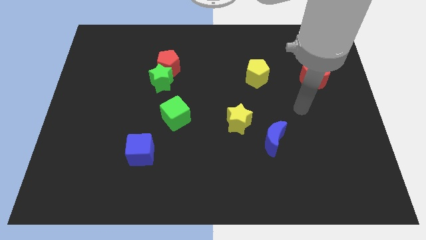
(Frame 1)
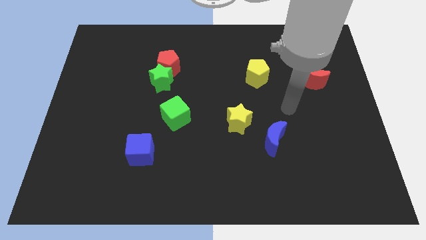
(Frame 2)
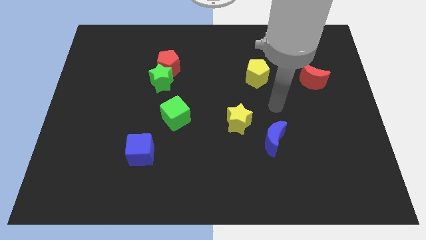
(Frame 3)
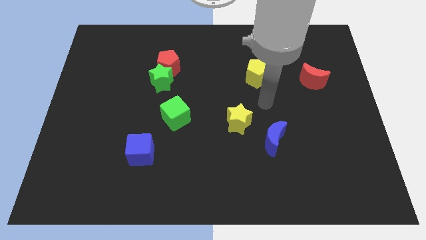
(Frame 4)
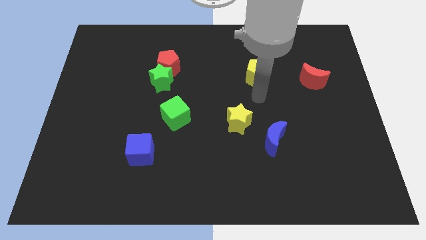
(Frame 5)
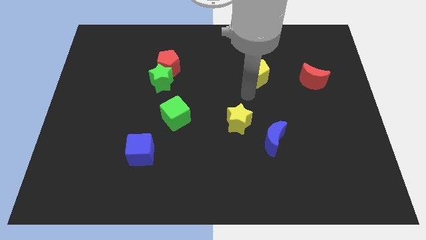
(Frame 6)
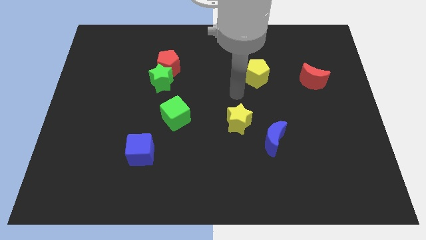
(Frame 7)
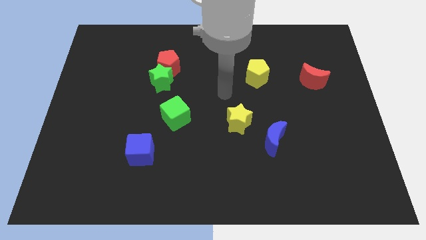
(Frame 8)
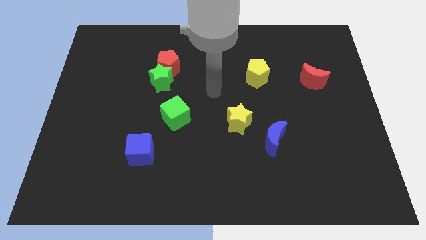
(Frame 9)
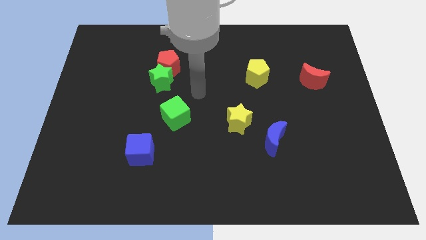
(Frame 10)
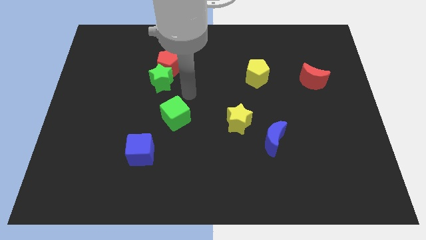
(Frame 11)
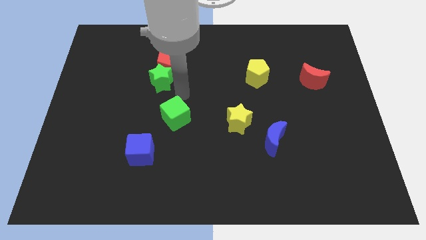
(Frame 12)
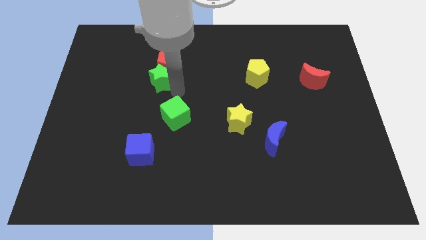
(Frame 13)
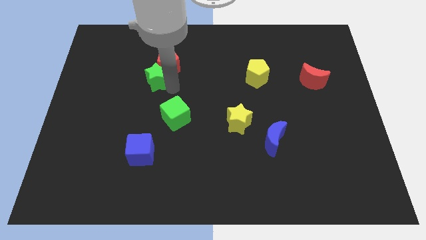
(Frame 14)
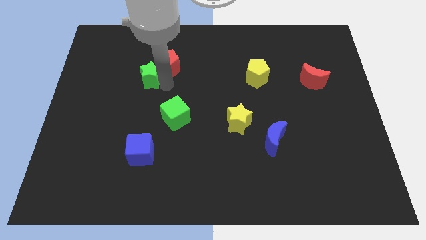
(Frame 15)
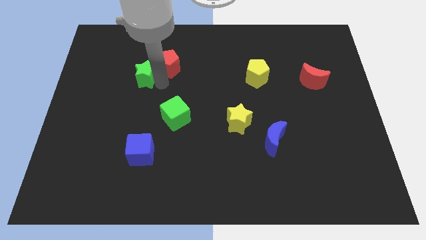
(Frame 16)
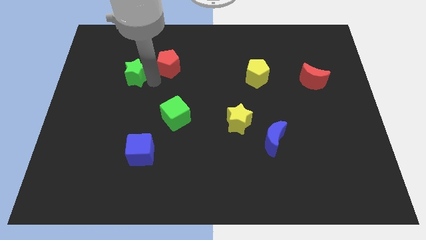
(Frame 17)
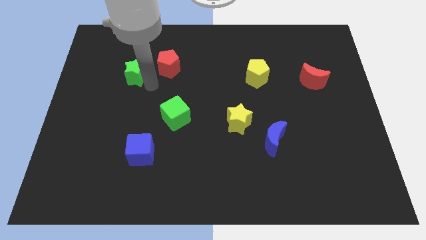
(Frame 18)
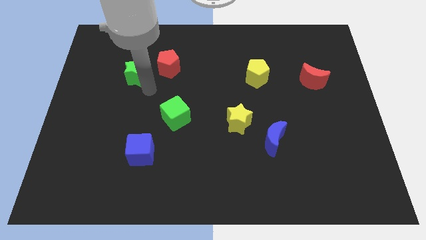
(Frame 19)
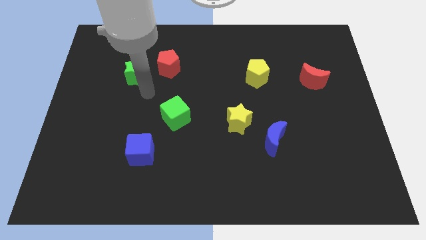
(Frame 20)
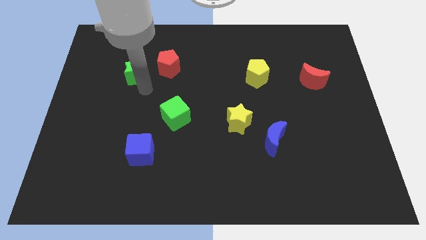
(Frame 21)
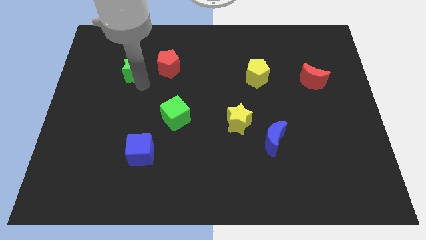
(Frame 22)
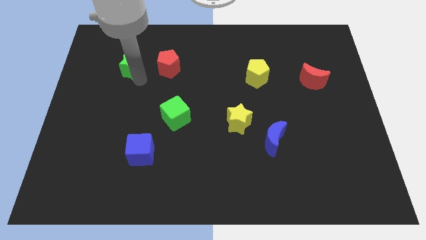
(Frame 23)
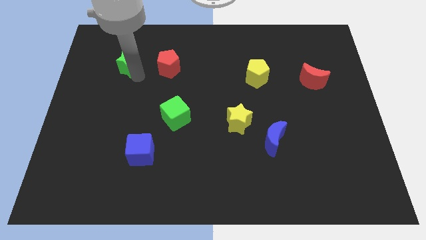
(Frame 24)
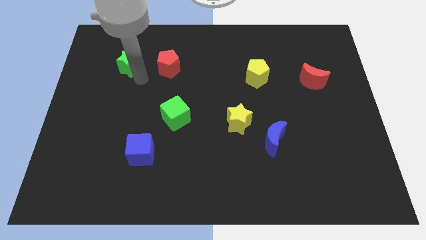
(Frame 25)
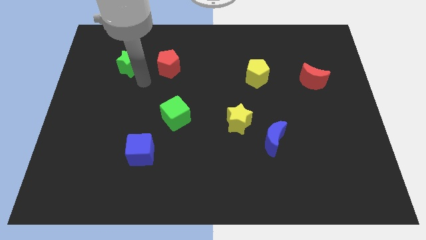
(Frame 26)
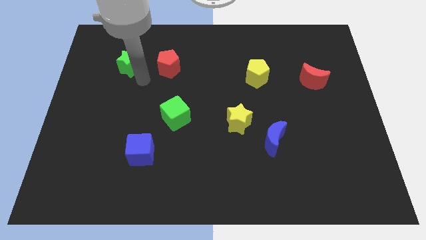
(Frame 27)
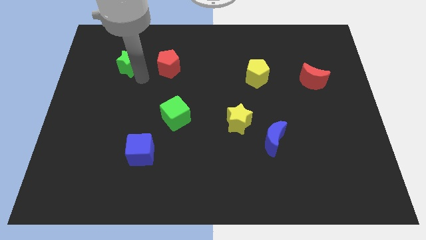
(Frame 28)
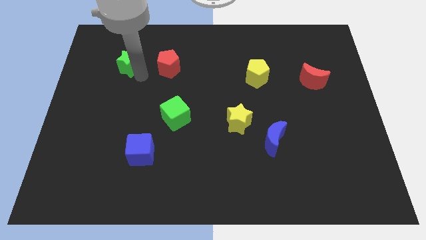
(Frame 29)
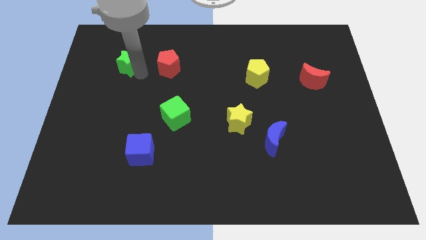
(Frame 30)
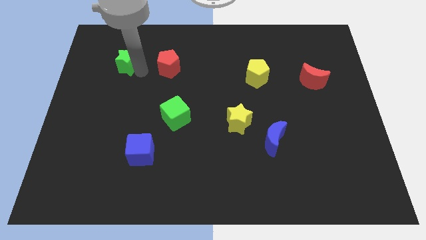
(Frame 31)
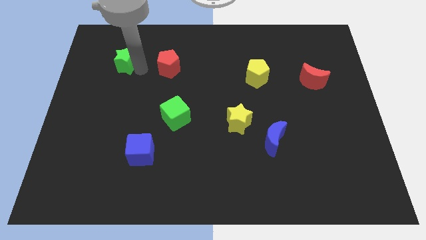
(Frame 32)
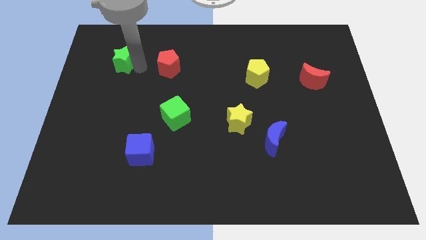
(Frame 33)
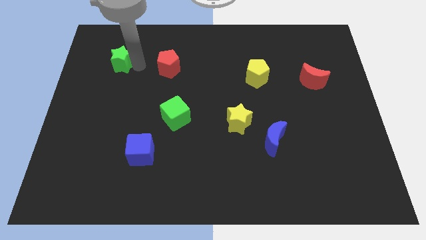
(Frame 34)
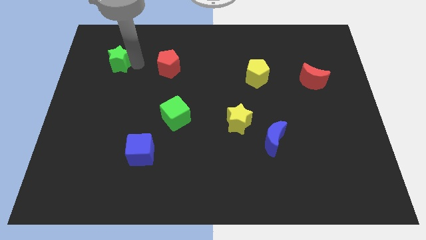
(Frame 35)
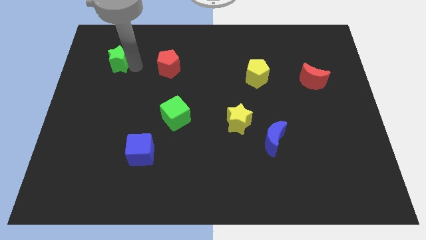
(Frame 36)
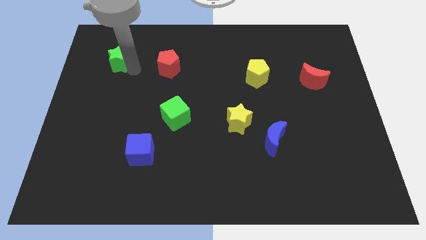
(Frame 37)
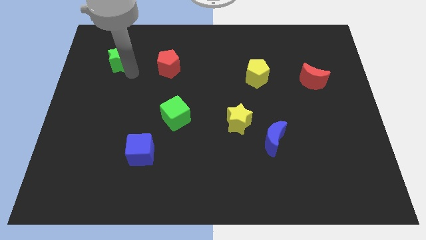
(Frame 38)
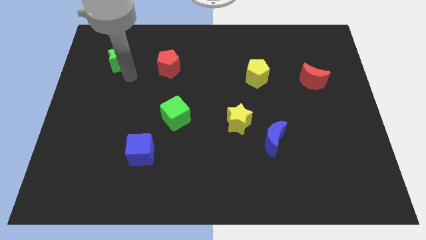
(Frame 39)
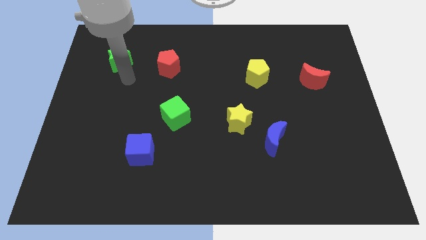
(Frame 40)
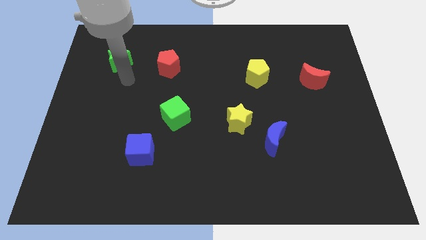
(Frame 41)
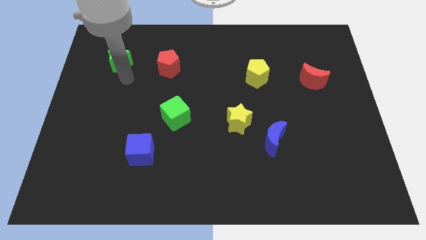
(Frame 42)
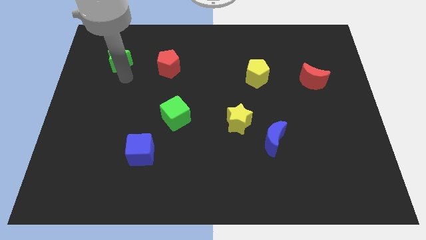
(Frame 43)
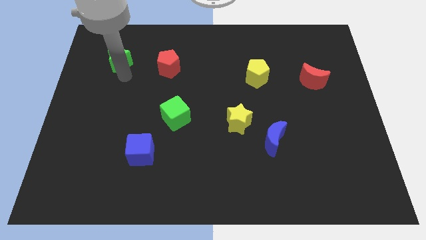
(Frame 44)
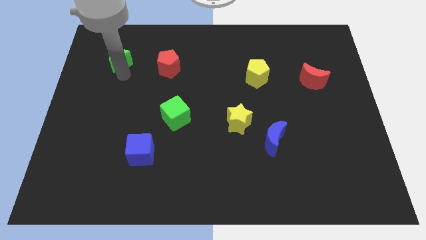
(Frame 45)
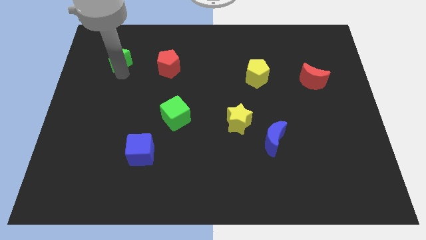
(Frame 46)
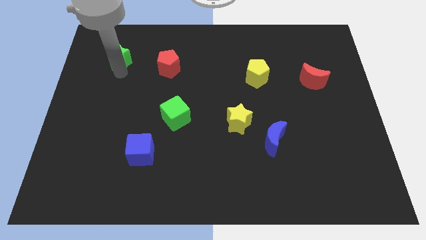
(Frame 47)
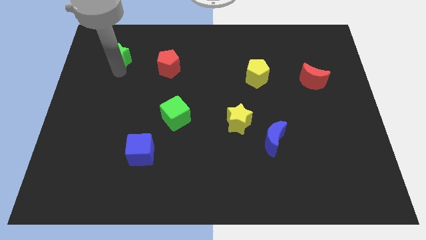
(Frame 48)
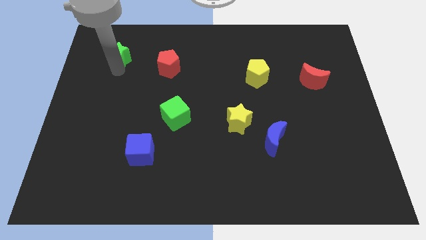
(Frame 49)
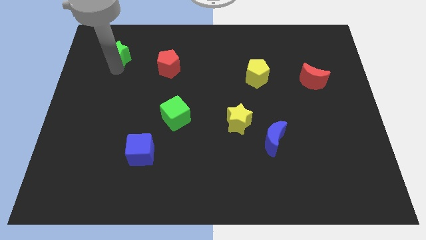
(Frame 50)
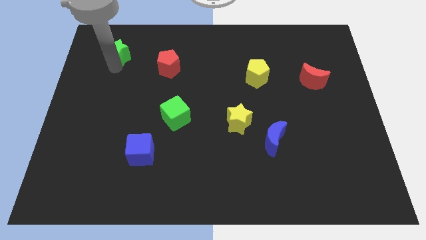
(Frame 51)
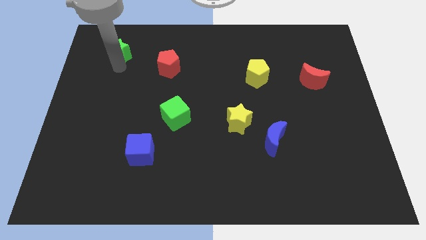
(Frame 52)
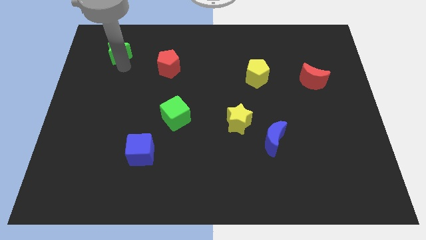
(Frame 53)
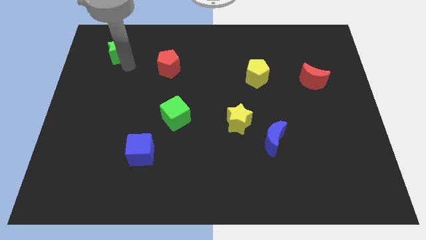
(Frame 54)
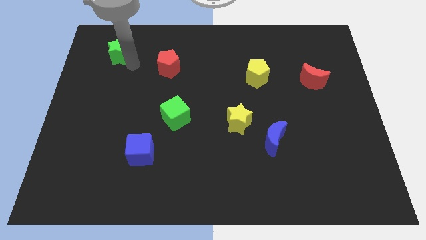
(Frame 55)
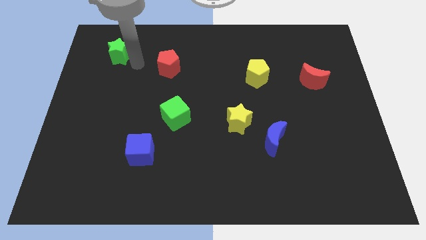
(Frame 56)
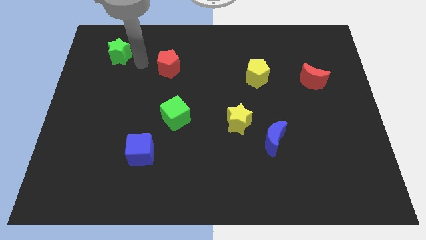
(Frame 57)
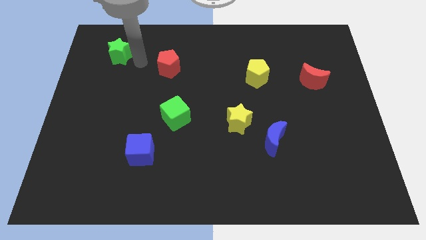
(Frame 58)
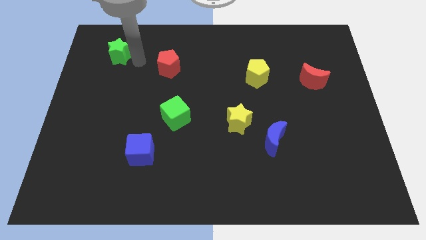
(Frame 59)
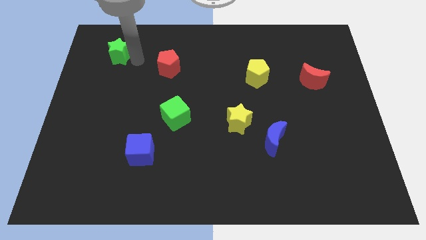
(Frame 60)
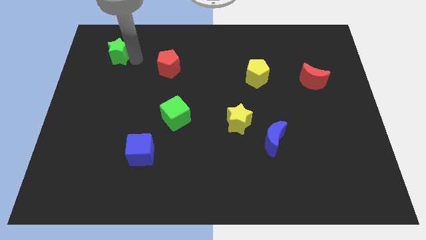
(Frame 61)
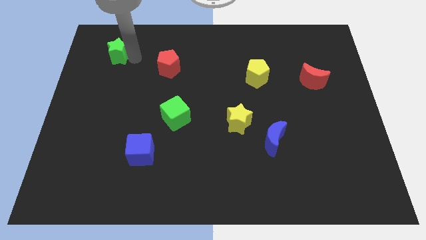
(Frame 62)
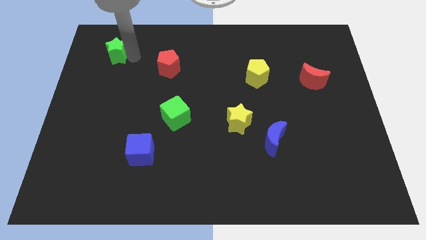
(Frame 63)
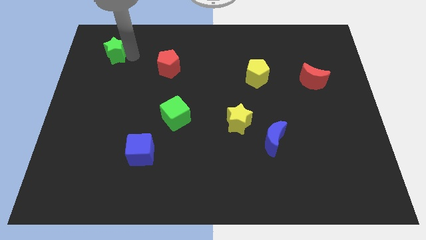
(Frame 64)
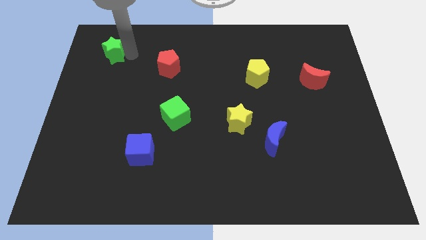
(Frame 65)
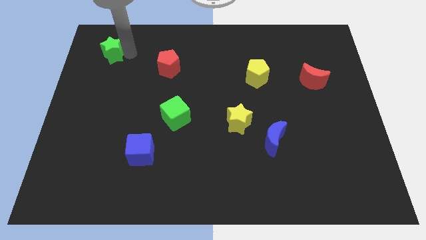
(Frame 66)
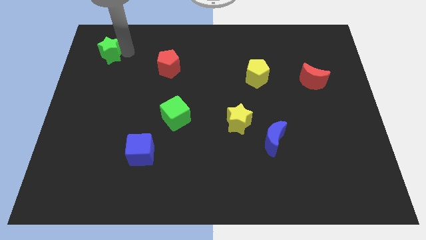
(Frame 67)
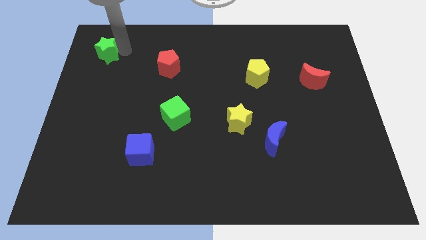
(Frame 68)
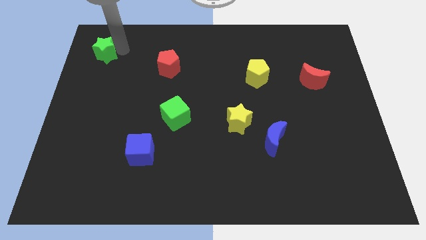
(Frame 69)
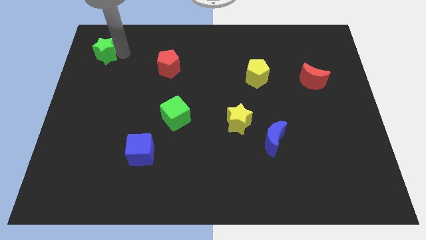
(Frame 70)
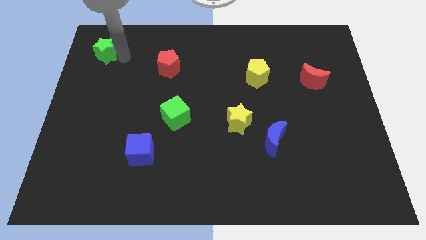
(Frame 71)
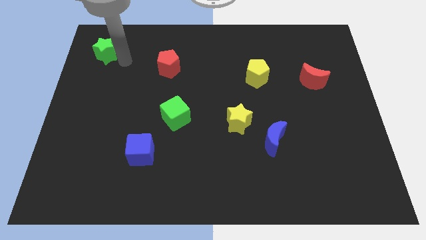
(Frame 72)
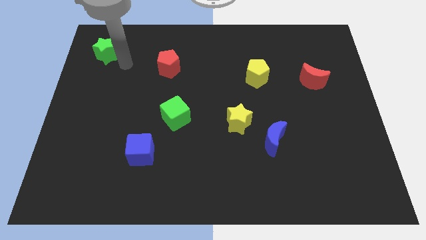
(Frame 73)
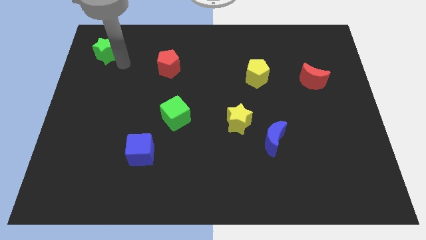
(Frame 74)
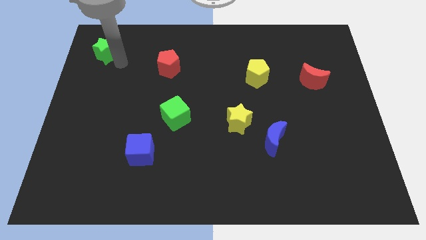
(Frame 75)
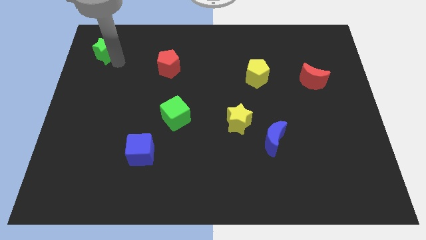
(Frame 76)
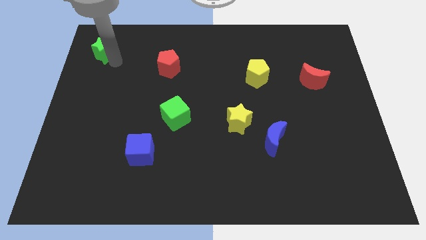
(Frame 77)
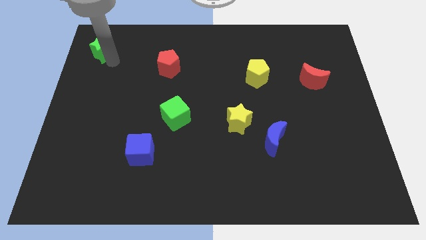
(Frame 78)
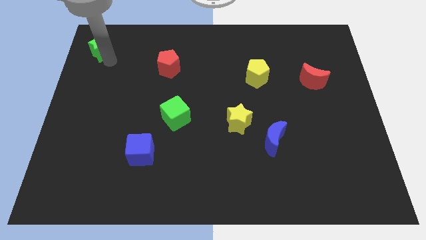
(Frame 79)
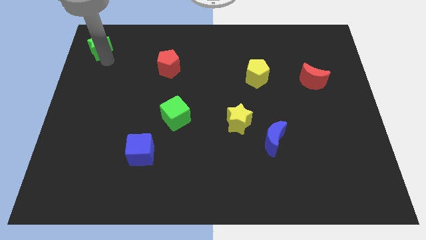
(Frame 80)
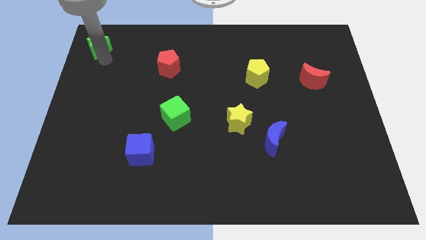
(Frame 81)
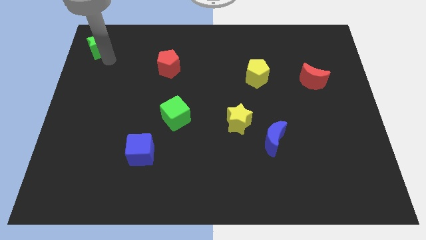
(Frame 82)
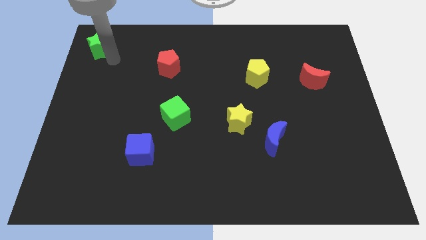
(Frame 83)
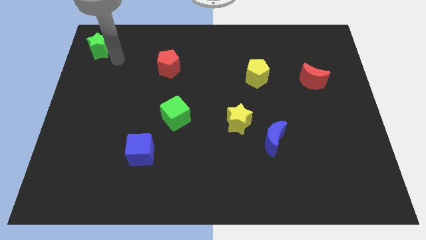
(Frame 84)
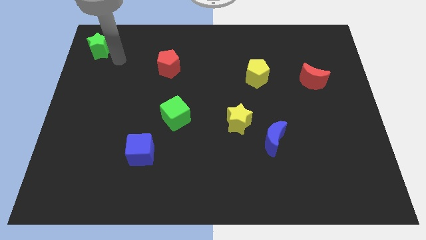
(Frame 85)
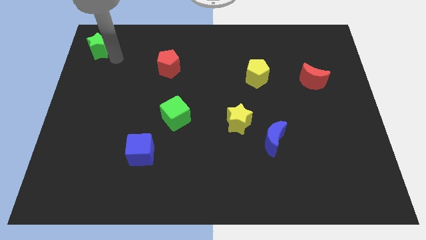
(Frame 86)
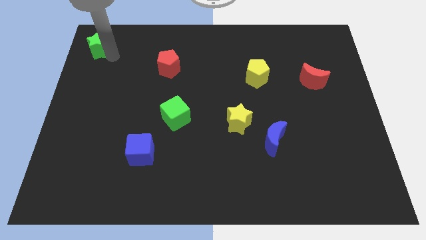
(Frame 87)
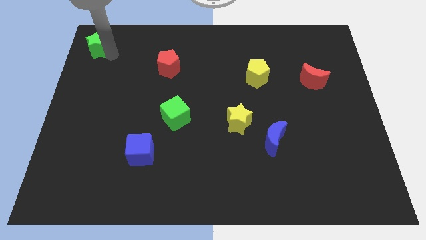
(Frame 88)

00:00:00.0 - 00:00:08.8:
push the green star to the top left
